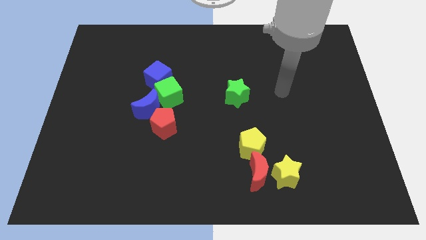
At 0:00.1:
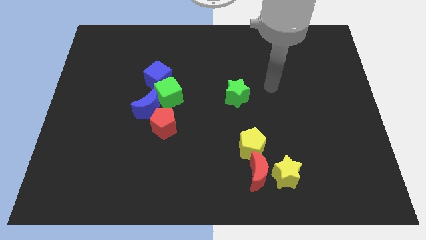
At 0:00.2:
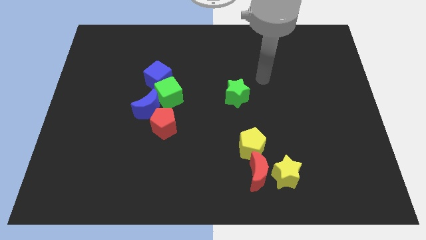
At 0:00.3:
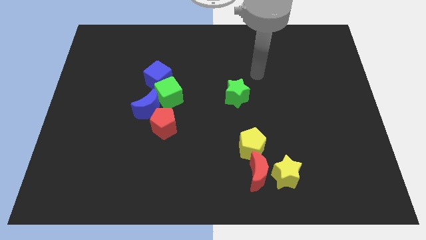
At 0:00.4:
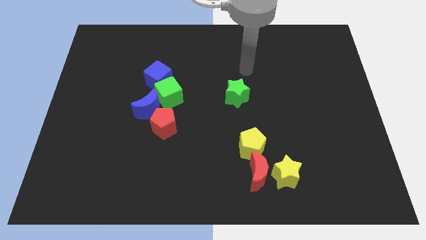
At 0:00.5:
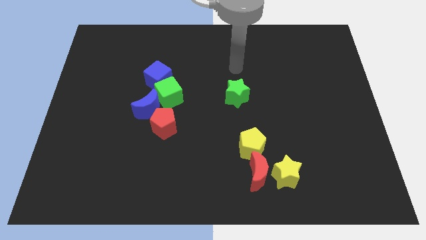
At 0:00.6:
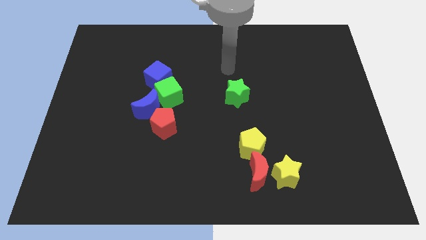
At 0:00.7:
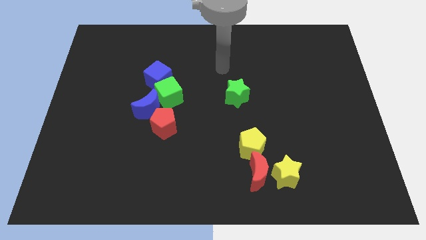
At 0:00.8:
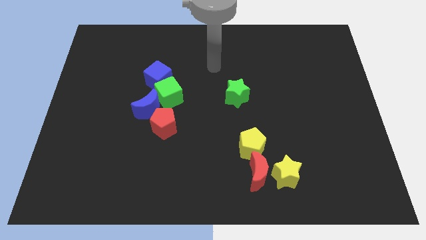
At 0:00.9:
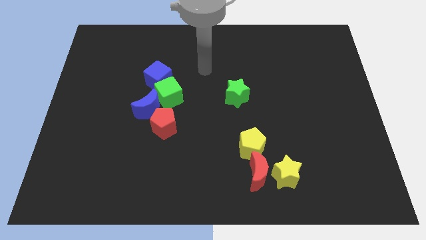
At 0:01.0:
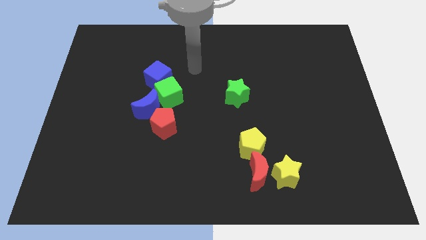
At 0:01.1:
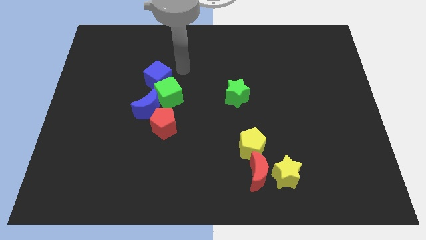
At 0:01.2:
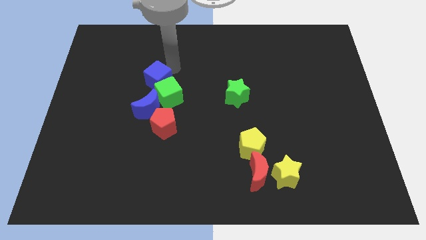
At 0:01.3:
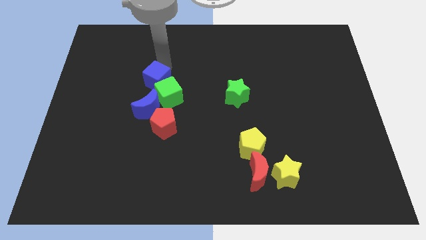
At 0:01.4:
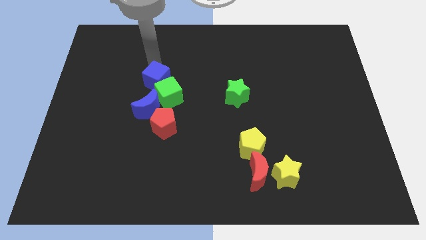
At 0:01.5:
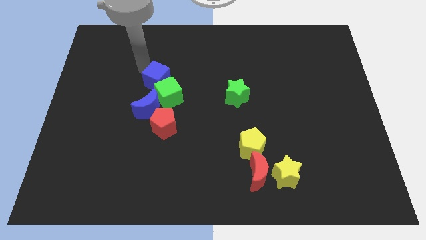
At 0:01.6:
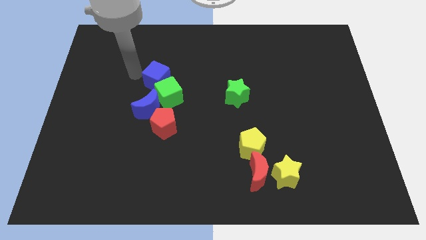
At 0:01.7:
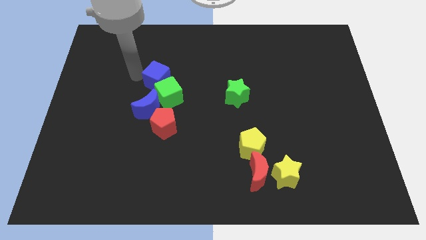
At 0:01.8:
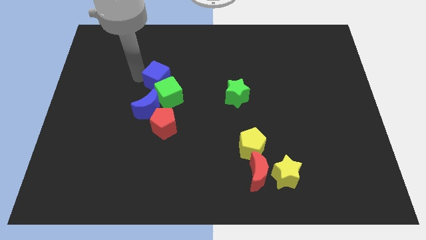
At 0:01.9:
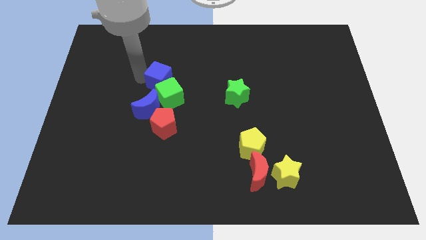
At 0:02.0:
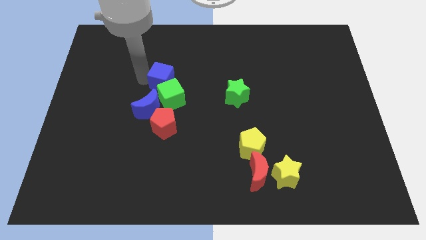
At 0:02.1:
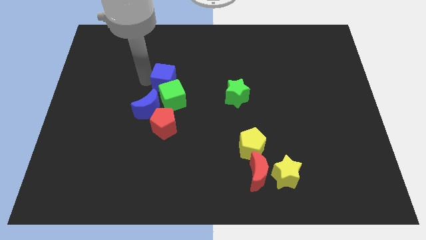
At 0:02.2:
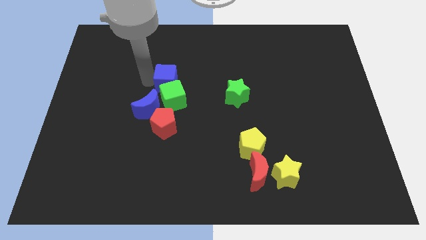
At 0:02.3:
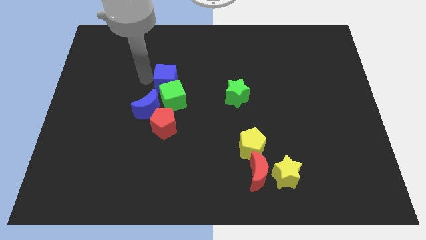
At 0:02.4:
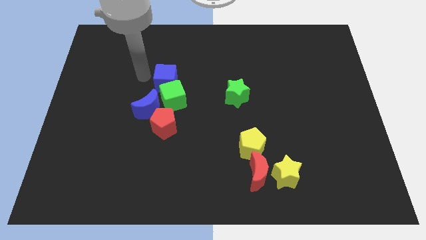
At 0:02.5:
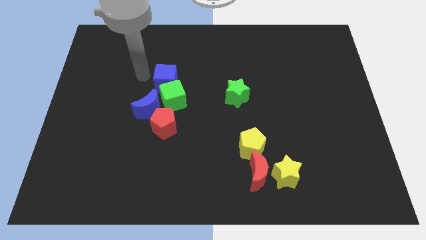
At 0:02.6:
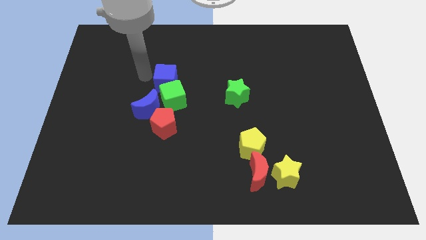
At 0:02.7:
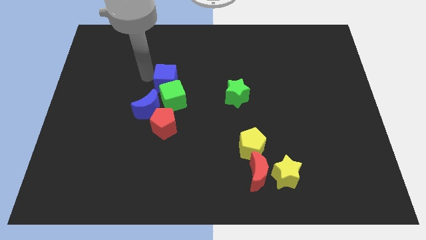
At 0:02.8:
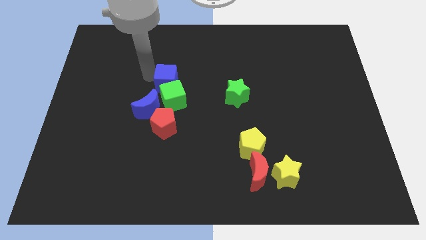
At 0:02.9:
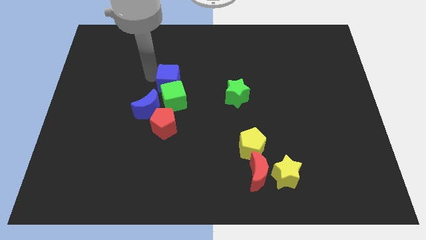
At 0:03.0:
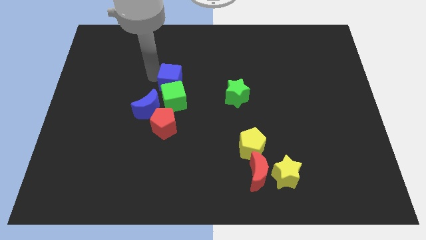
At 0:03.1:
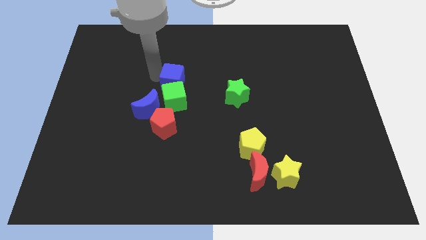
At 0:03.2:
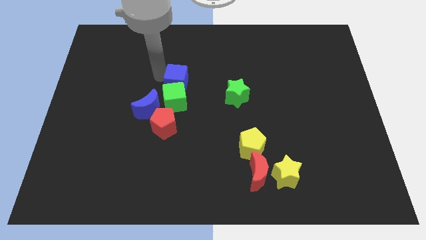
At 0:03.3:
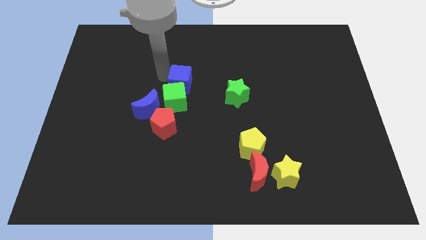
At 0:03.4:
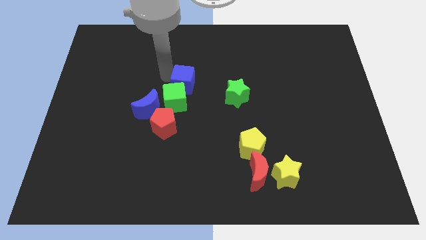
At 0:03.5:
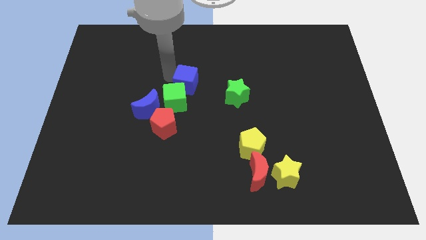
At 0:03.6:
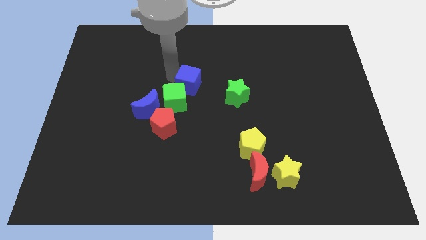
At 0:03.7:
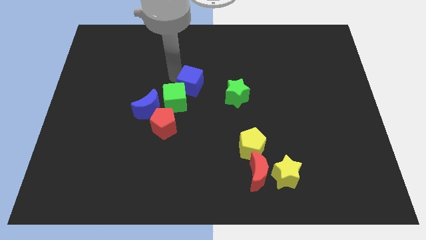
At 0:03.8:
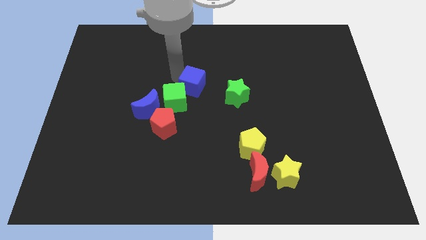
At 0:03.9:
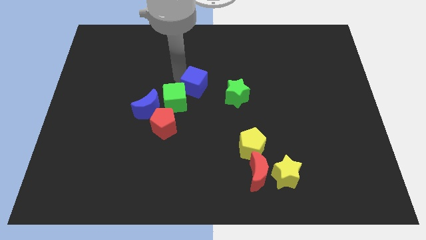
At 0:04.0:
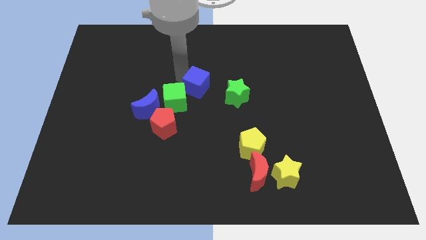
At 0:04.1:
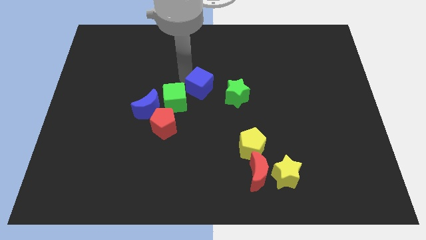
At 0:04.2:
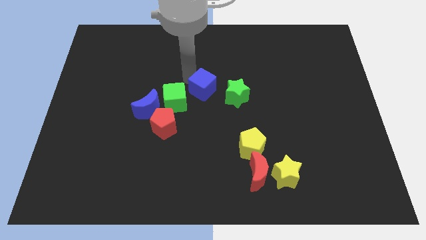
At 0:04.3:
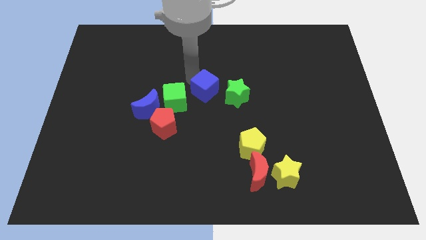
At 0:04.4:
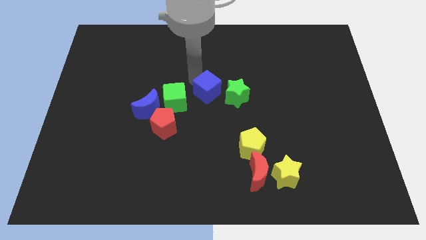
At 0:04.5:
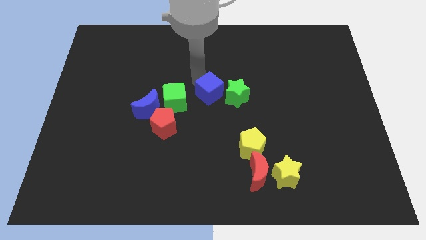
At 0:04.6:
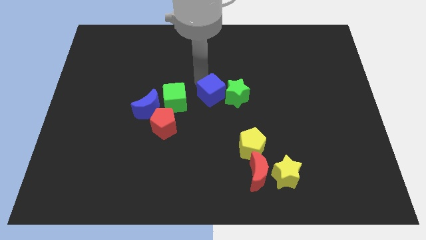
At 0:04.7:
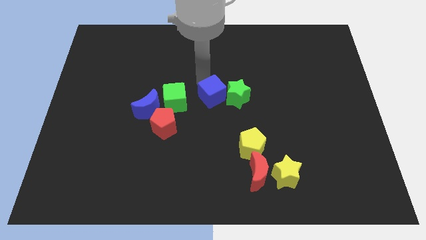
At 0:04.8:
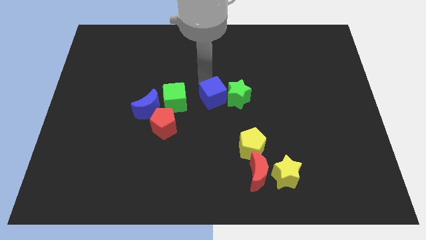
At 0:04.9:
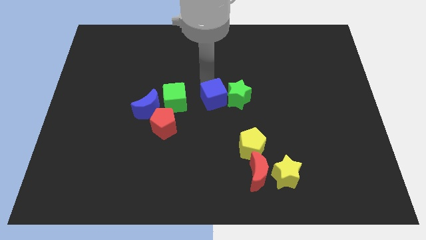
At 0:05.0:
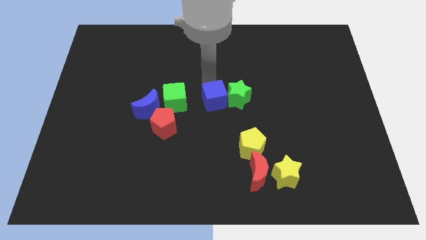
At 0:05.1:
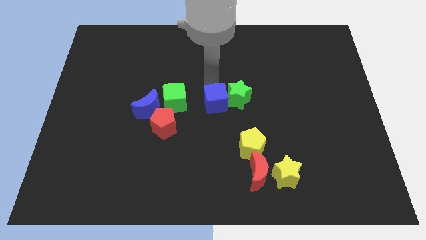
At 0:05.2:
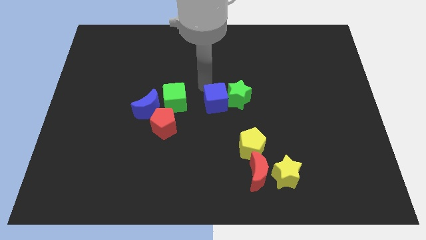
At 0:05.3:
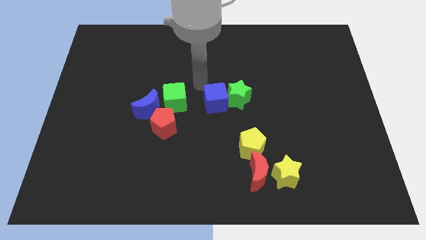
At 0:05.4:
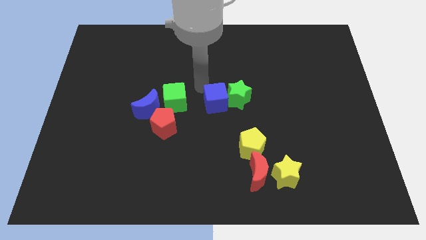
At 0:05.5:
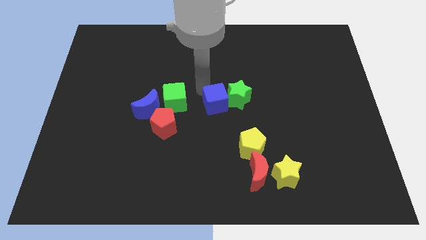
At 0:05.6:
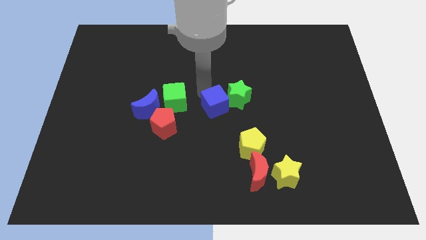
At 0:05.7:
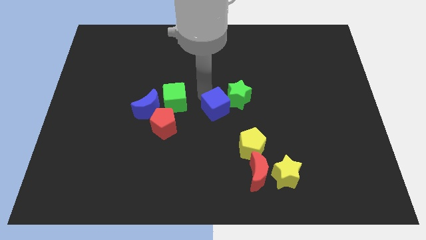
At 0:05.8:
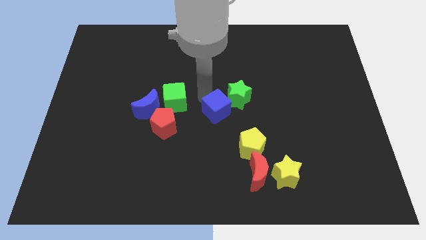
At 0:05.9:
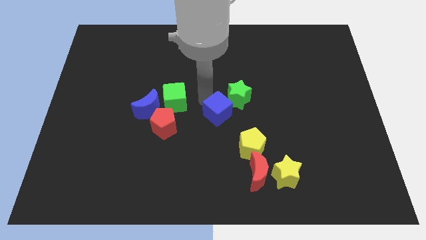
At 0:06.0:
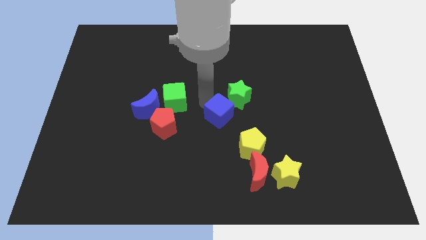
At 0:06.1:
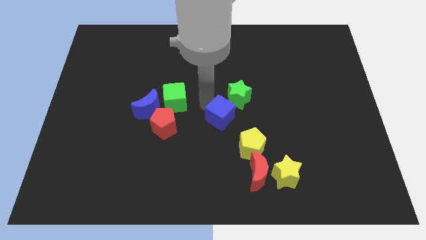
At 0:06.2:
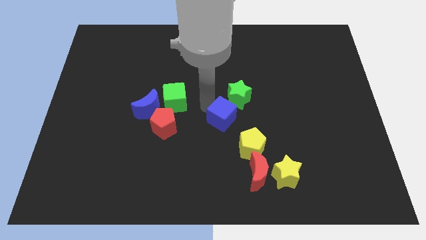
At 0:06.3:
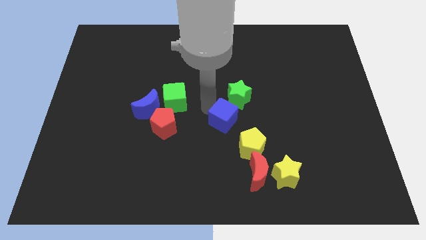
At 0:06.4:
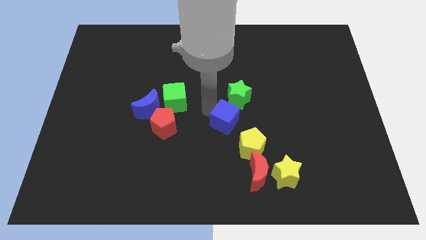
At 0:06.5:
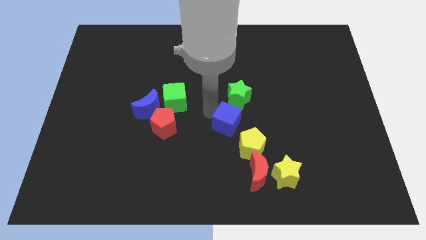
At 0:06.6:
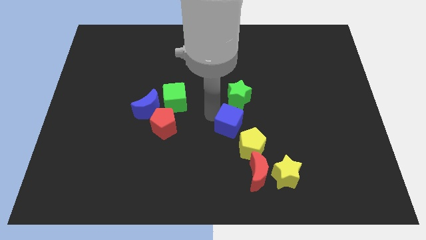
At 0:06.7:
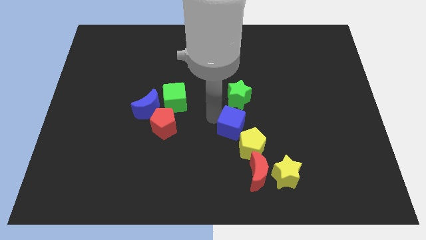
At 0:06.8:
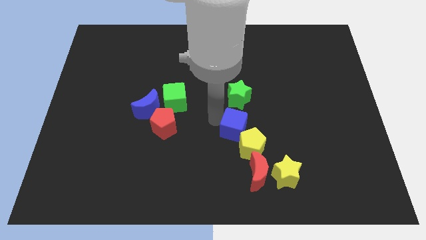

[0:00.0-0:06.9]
push the blue cube to the top side of the red moon

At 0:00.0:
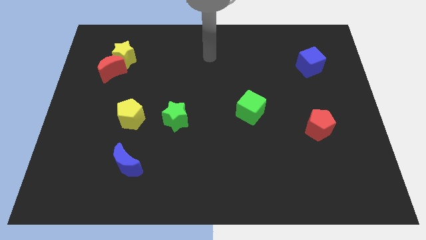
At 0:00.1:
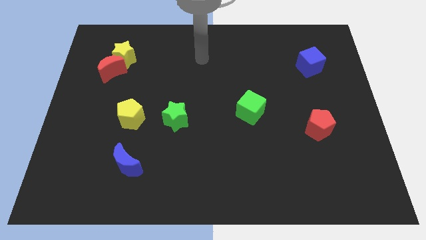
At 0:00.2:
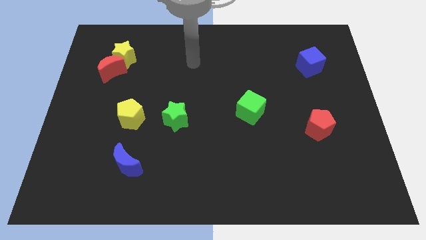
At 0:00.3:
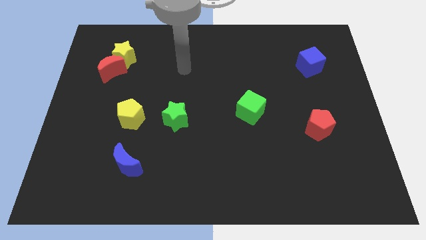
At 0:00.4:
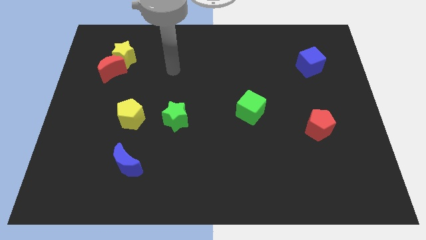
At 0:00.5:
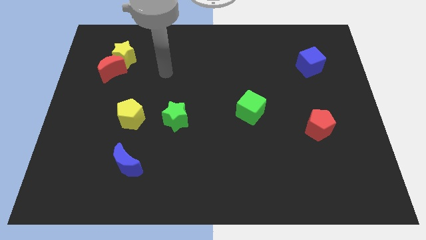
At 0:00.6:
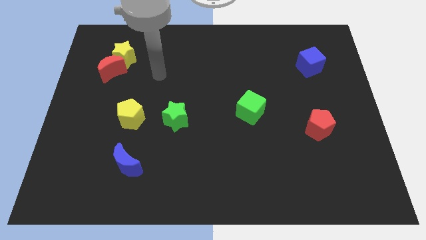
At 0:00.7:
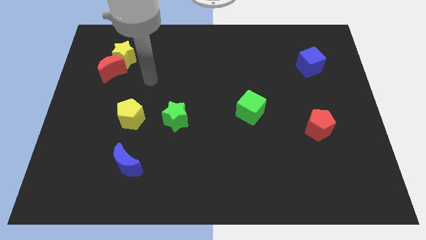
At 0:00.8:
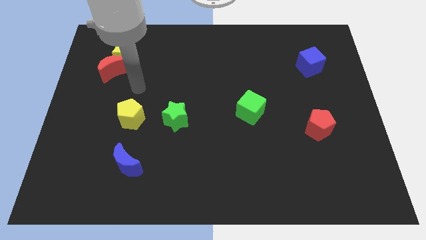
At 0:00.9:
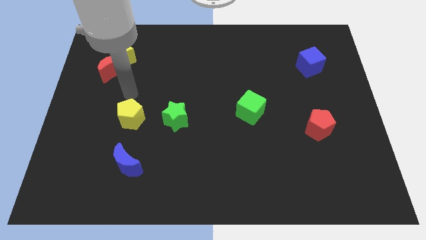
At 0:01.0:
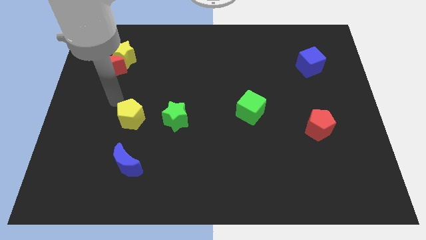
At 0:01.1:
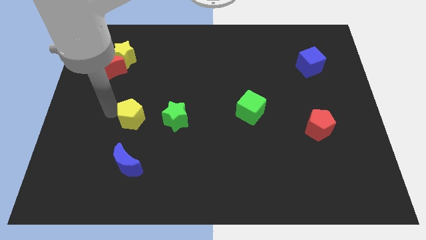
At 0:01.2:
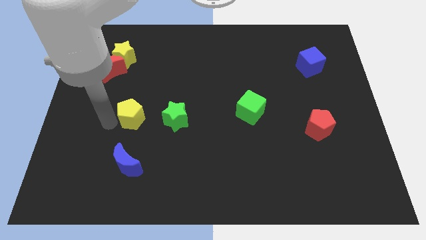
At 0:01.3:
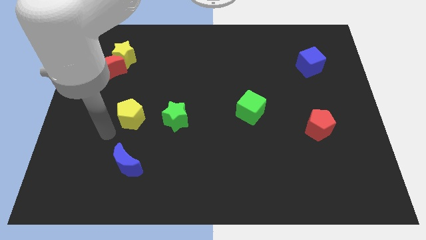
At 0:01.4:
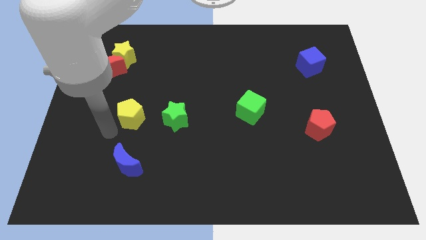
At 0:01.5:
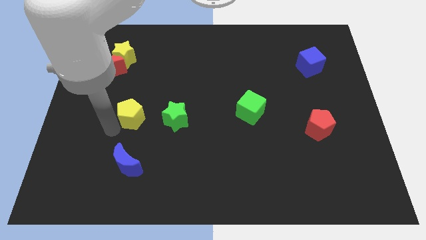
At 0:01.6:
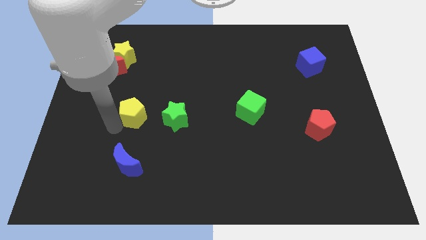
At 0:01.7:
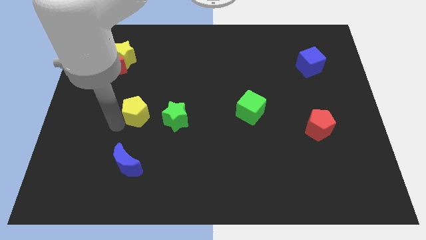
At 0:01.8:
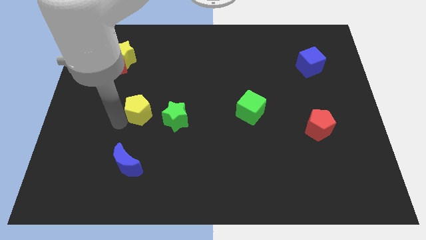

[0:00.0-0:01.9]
slide the yellow pentagon diagonally up and to the left of the green star
